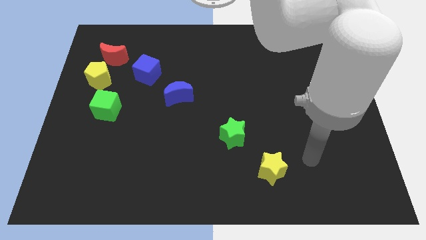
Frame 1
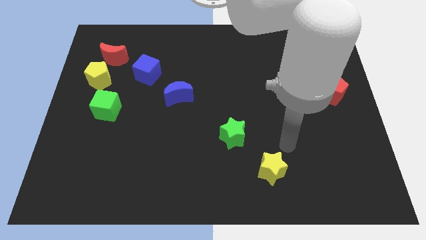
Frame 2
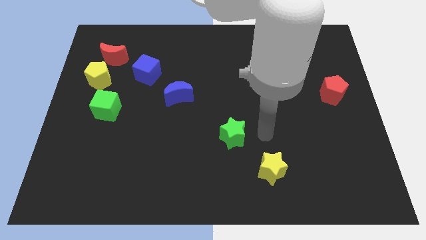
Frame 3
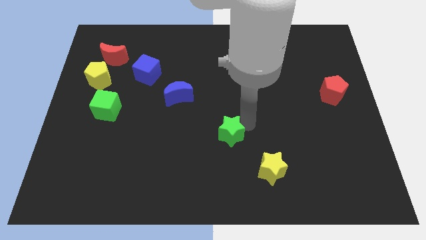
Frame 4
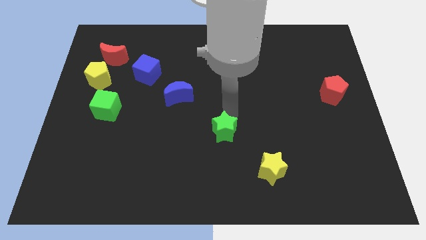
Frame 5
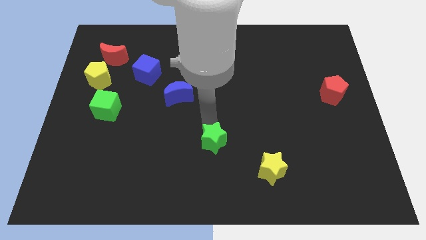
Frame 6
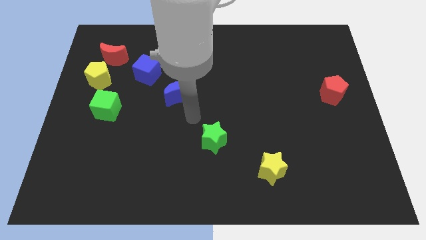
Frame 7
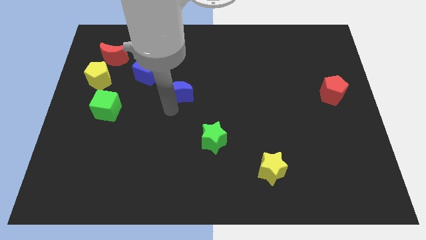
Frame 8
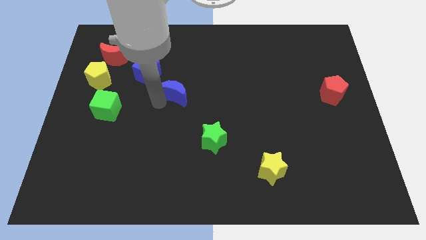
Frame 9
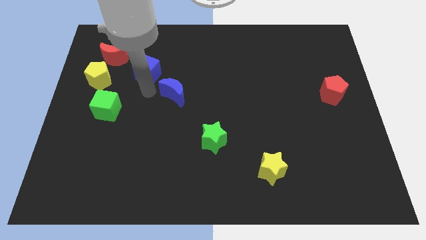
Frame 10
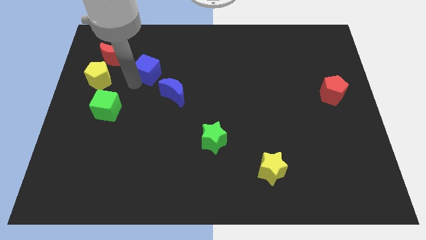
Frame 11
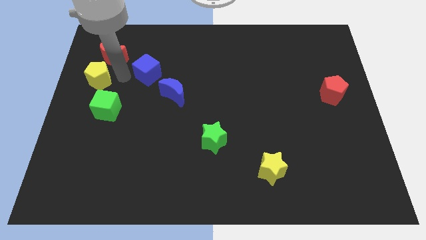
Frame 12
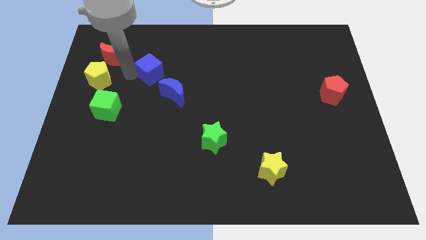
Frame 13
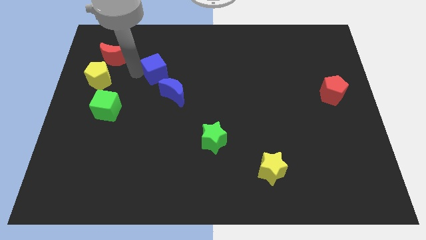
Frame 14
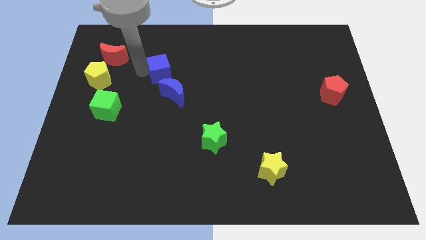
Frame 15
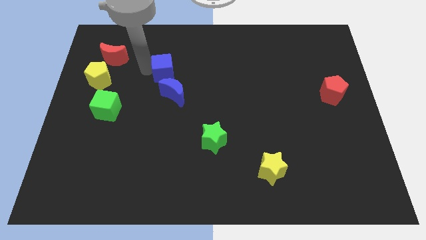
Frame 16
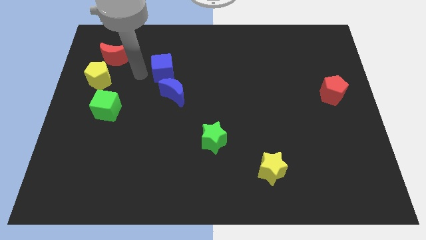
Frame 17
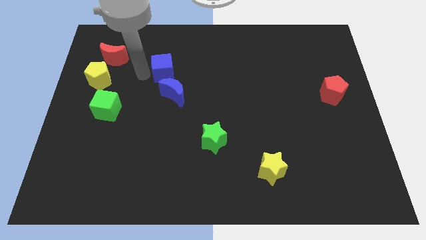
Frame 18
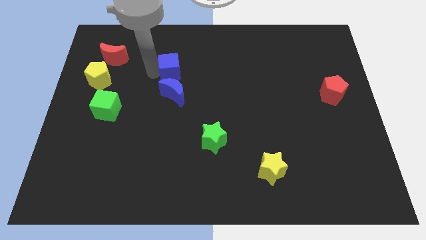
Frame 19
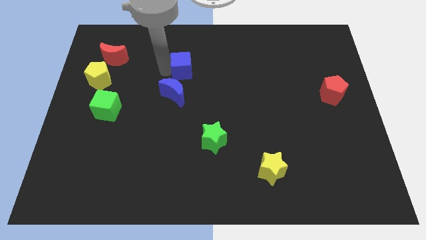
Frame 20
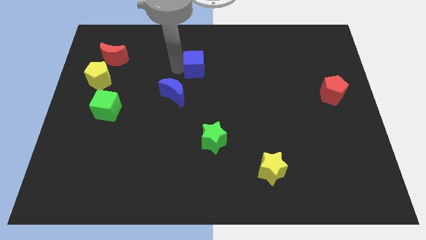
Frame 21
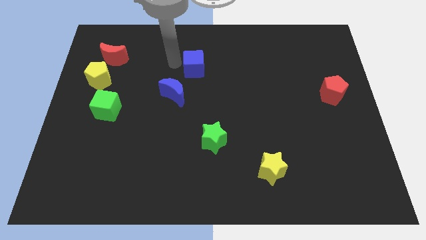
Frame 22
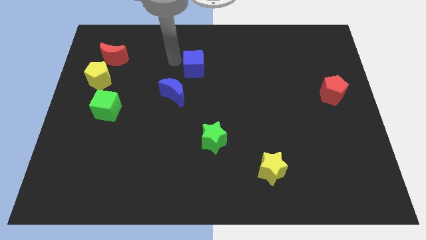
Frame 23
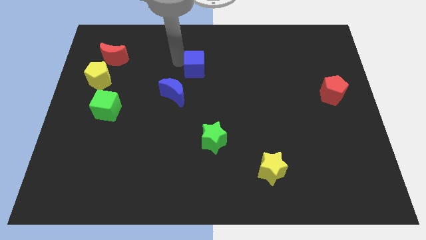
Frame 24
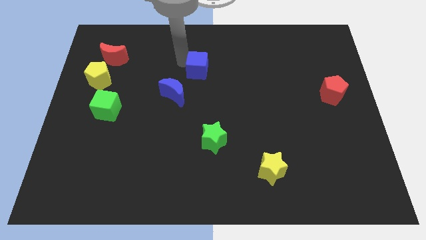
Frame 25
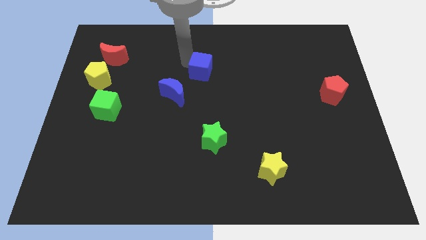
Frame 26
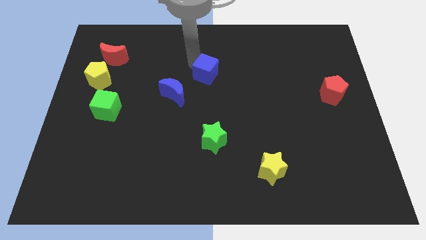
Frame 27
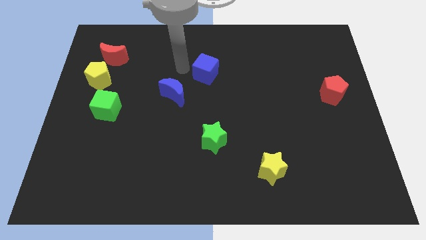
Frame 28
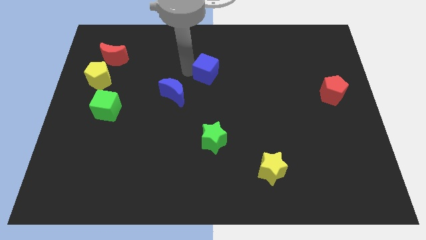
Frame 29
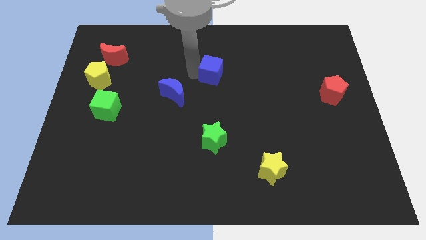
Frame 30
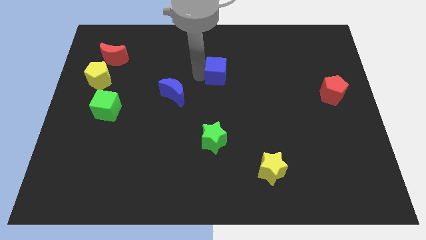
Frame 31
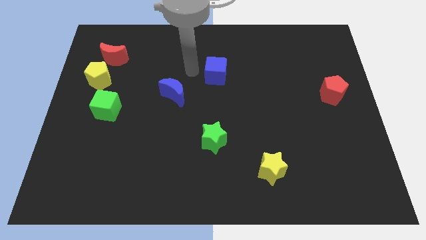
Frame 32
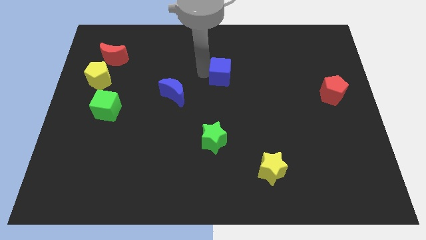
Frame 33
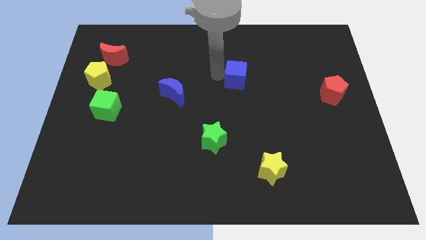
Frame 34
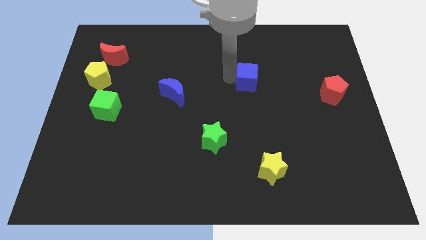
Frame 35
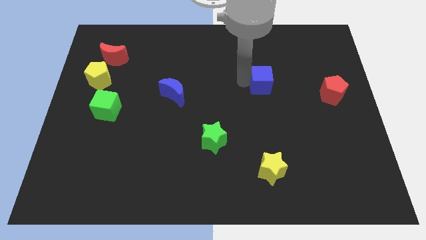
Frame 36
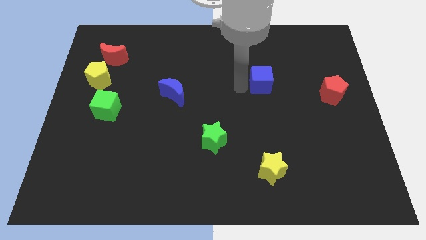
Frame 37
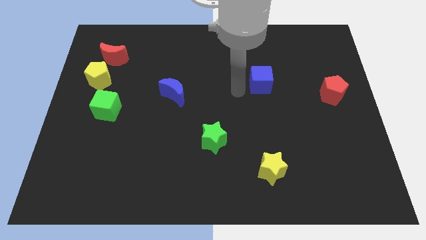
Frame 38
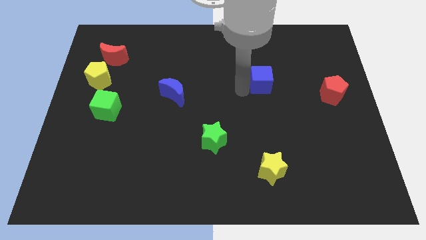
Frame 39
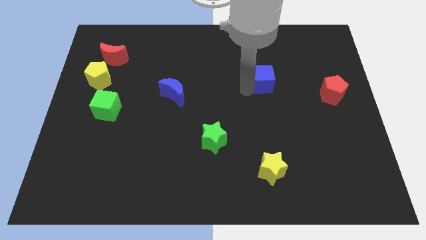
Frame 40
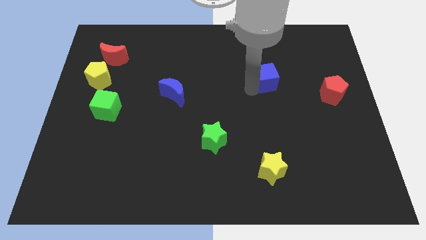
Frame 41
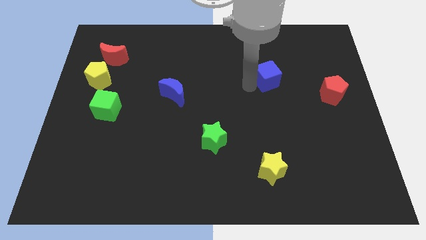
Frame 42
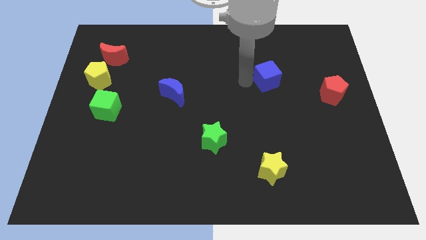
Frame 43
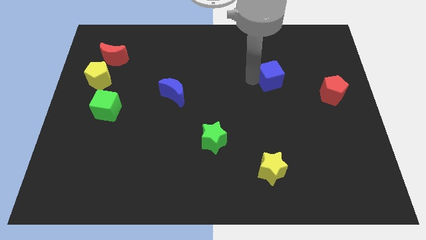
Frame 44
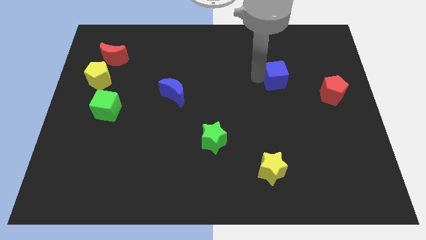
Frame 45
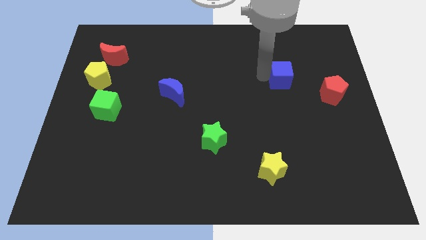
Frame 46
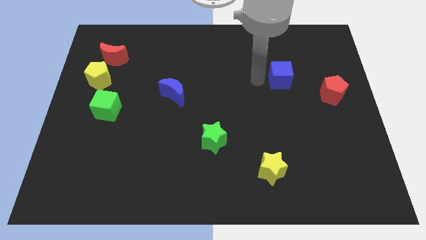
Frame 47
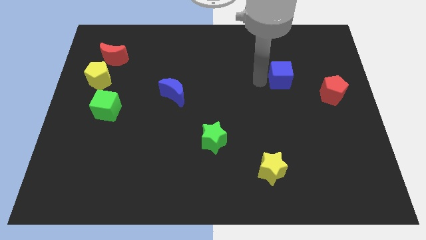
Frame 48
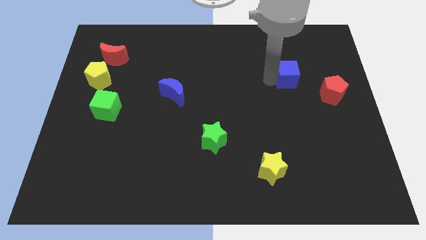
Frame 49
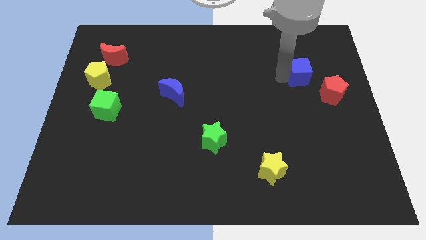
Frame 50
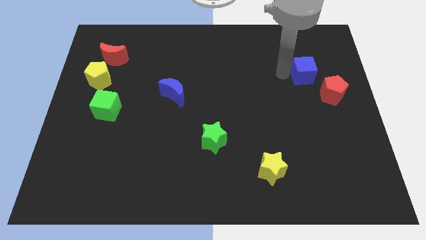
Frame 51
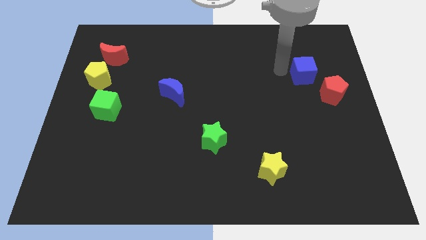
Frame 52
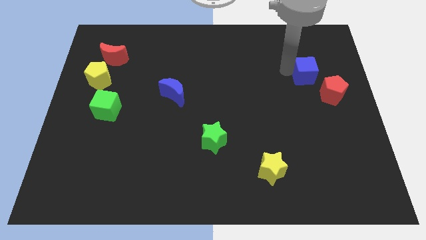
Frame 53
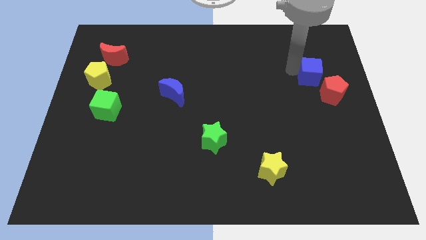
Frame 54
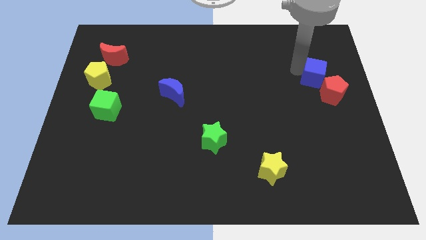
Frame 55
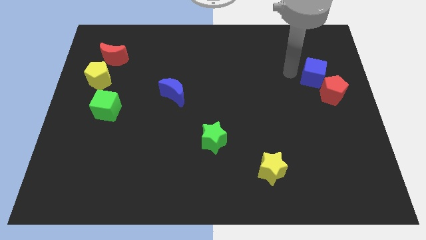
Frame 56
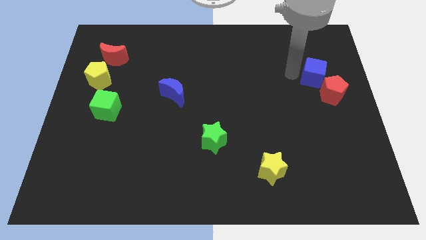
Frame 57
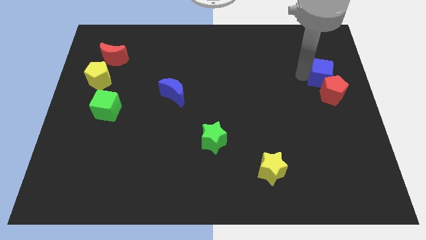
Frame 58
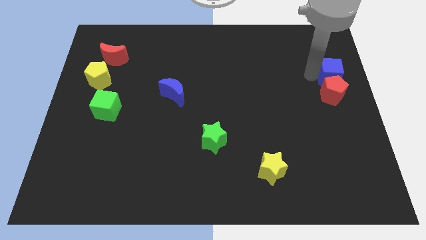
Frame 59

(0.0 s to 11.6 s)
put the blue cube to the right side of the board
